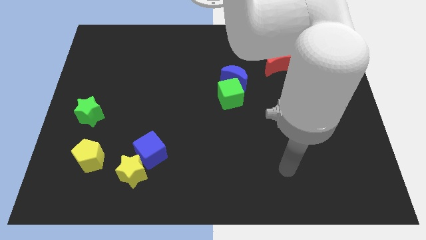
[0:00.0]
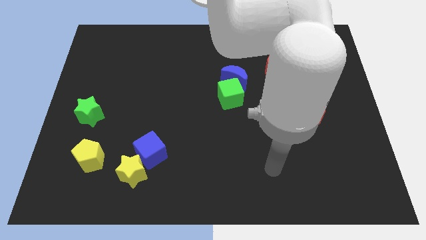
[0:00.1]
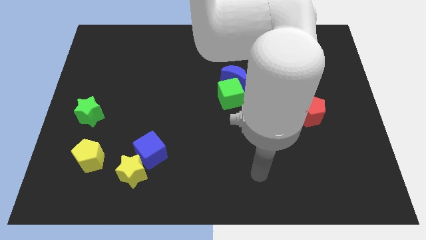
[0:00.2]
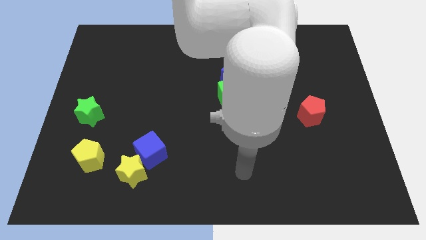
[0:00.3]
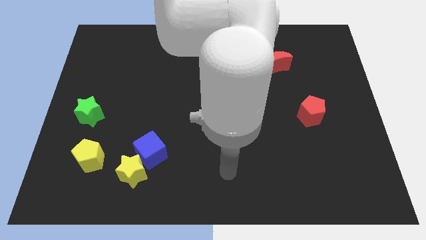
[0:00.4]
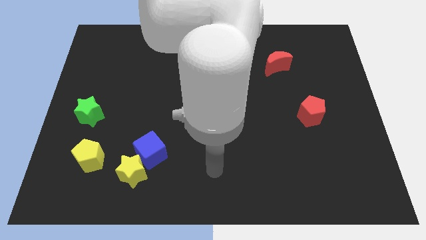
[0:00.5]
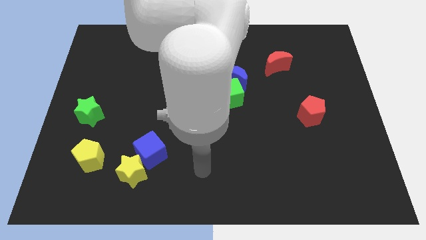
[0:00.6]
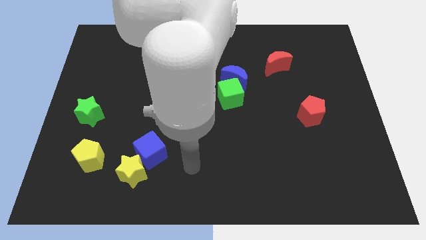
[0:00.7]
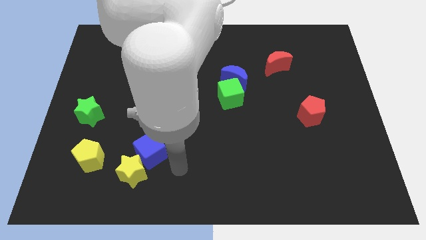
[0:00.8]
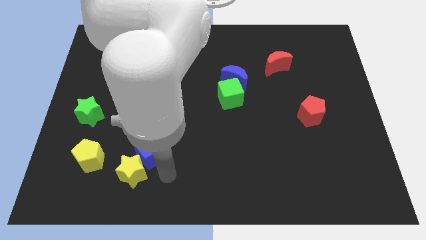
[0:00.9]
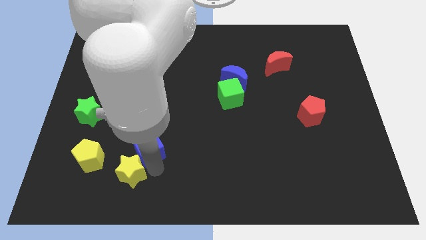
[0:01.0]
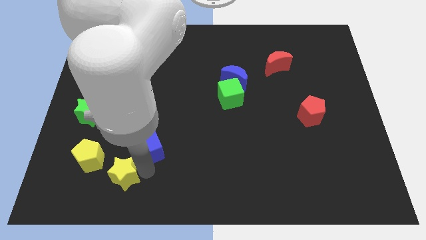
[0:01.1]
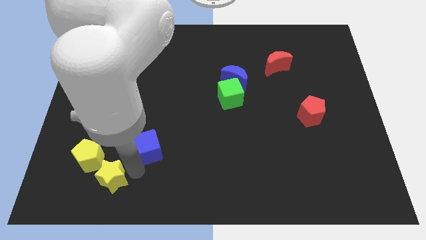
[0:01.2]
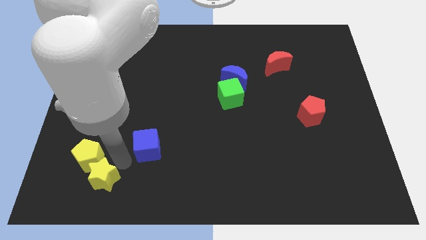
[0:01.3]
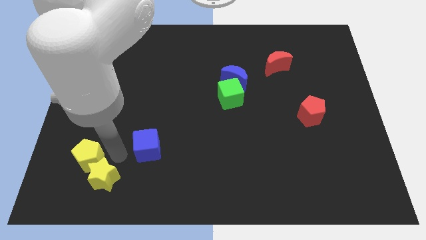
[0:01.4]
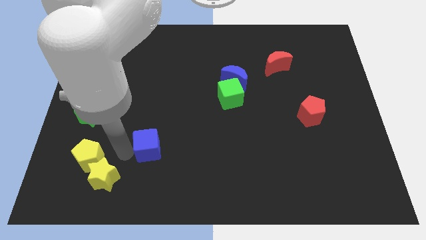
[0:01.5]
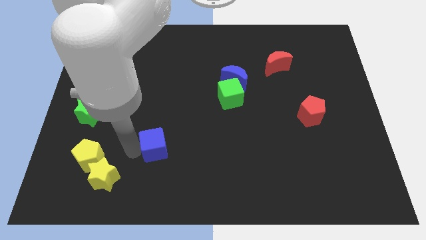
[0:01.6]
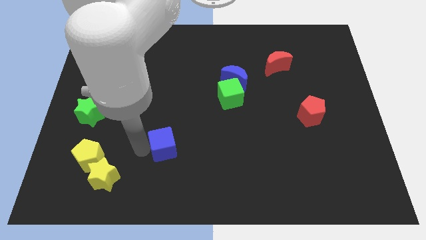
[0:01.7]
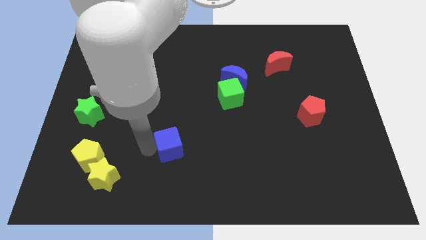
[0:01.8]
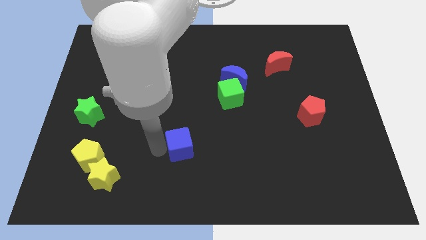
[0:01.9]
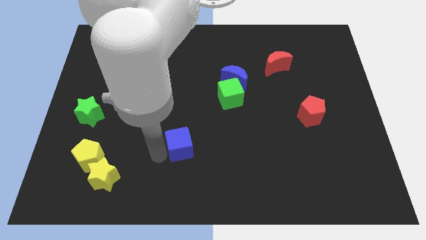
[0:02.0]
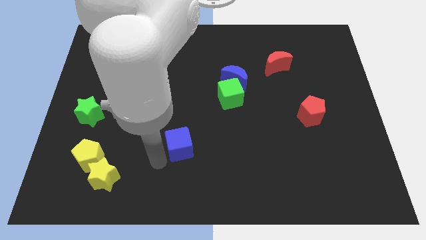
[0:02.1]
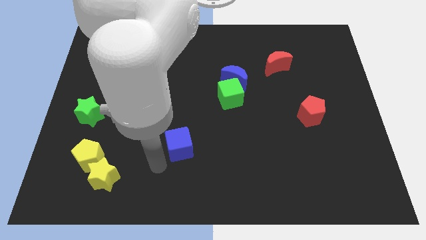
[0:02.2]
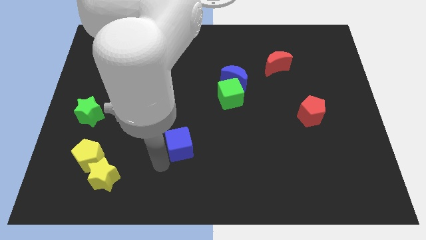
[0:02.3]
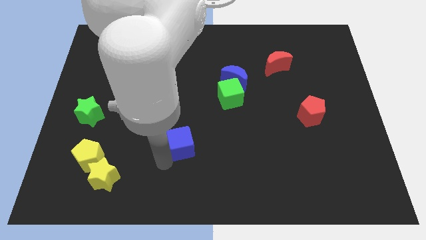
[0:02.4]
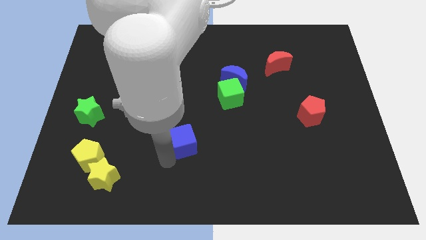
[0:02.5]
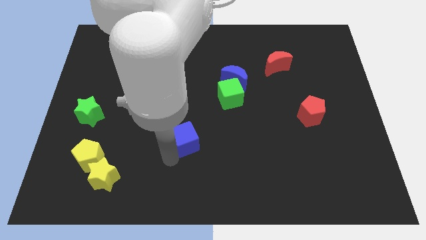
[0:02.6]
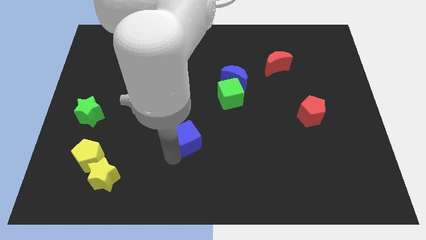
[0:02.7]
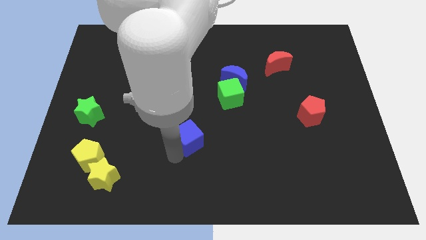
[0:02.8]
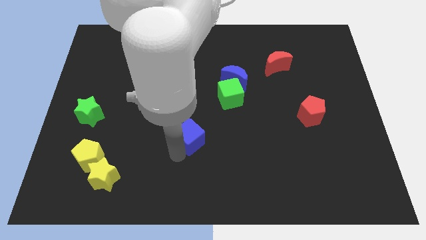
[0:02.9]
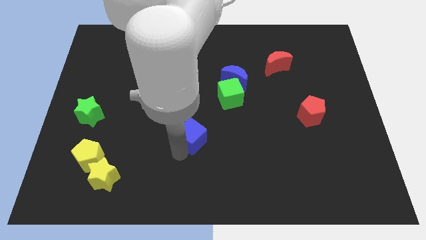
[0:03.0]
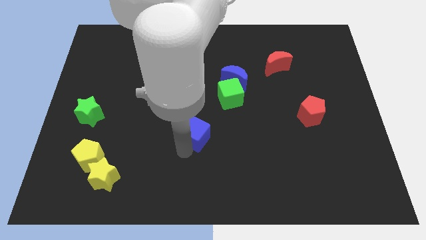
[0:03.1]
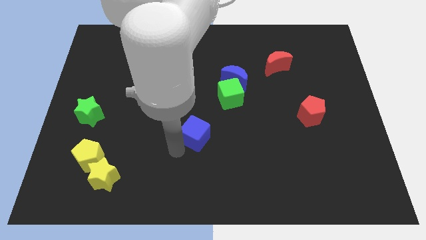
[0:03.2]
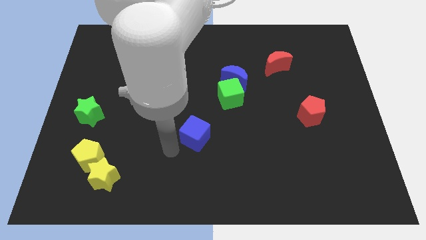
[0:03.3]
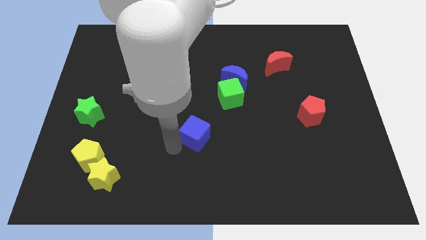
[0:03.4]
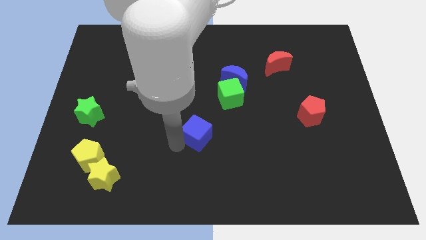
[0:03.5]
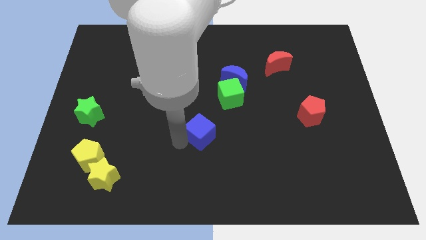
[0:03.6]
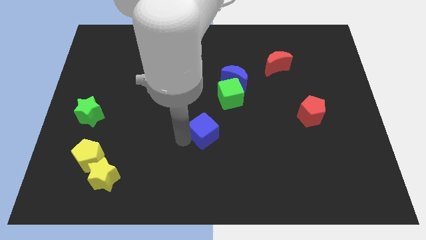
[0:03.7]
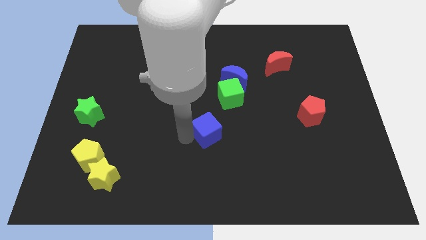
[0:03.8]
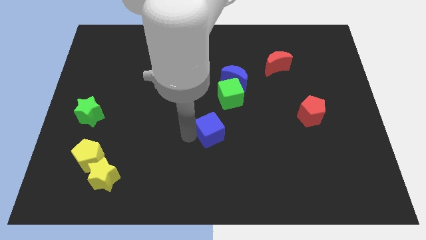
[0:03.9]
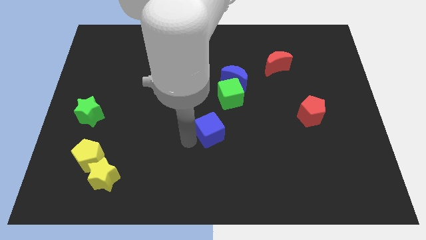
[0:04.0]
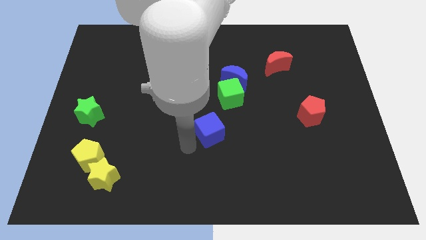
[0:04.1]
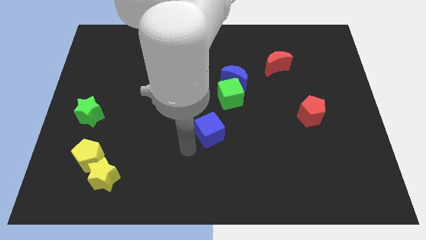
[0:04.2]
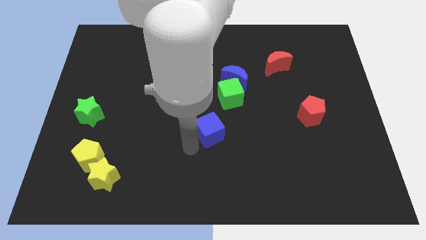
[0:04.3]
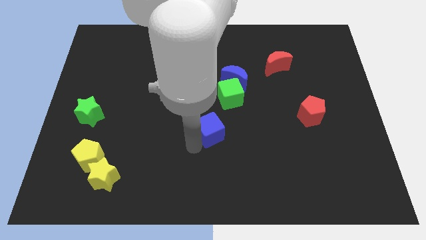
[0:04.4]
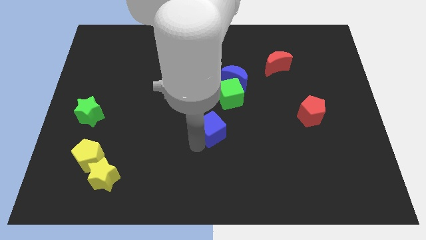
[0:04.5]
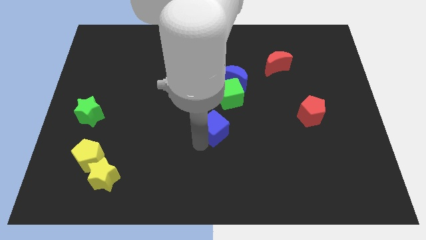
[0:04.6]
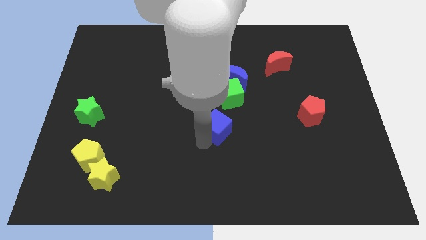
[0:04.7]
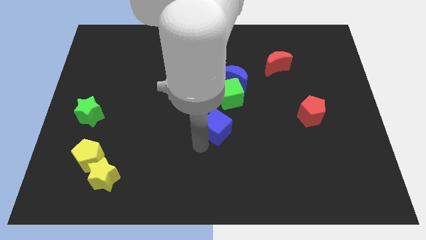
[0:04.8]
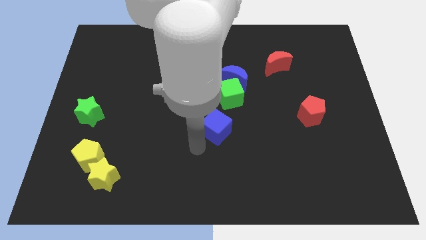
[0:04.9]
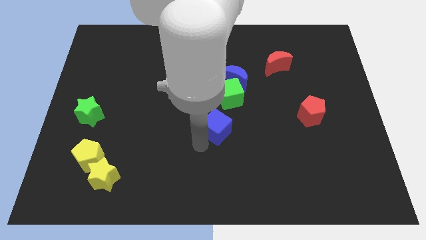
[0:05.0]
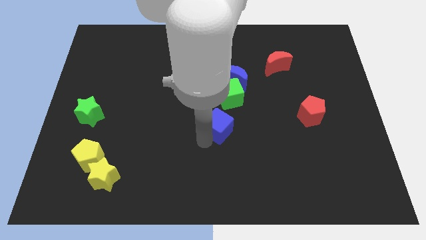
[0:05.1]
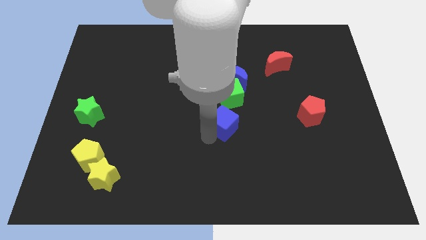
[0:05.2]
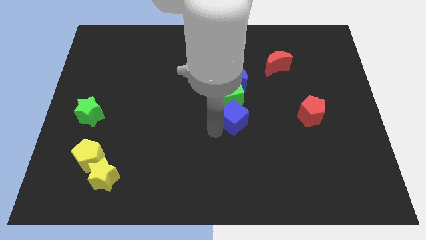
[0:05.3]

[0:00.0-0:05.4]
push the blue cube diagonally down and to the right of the green cube
